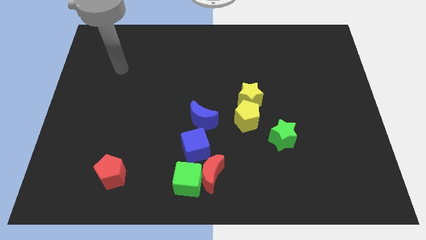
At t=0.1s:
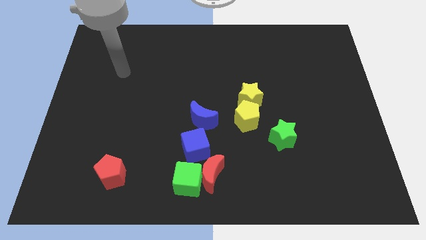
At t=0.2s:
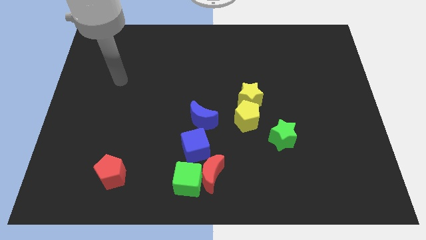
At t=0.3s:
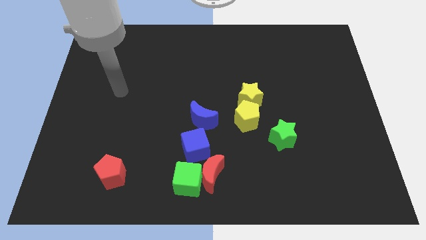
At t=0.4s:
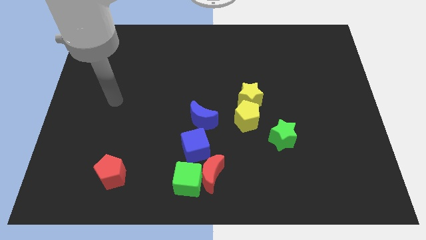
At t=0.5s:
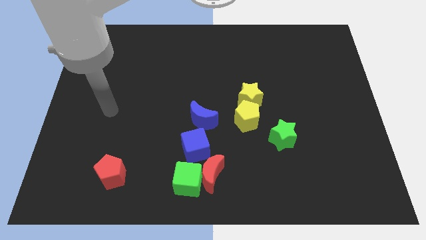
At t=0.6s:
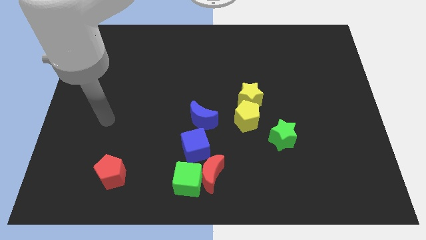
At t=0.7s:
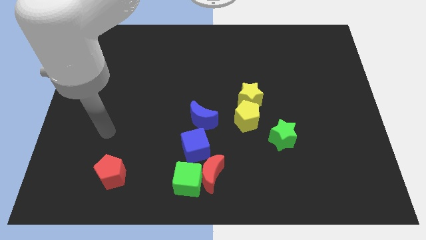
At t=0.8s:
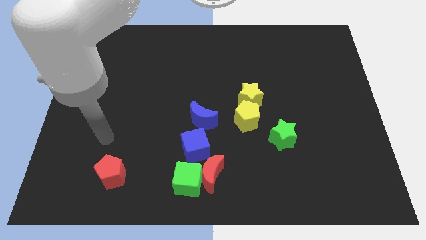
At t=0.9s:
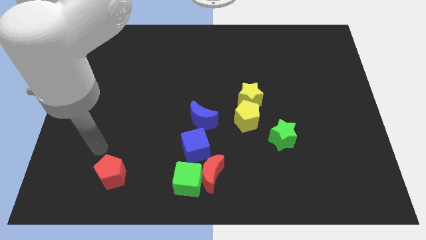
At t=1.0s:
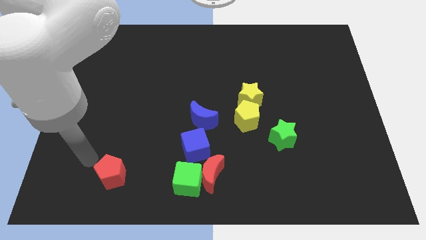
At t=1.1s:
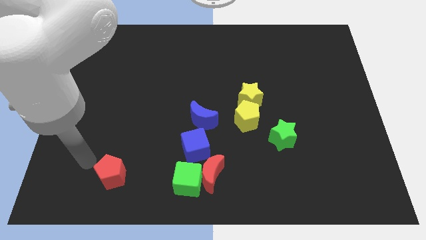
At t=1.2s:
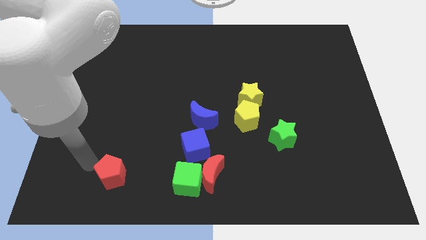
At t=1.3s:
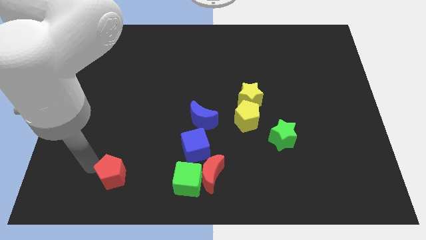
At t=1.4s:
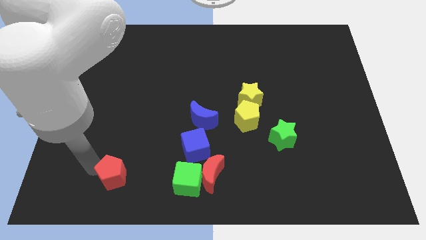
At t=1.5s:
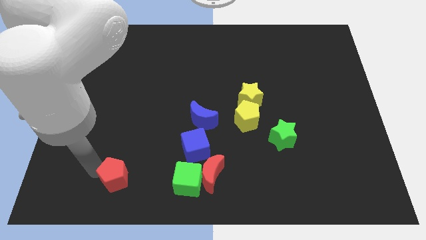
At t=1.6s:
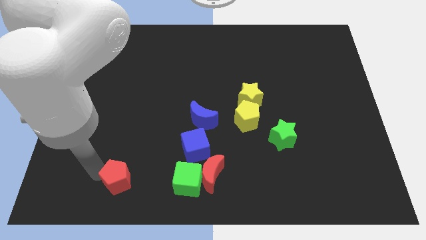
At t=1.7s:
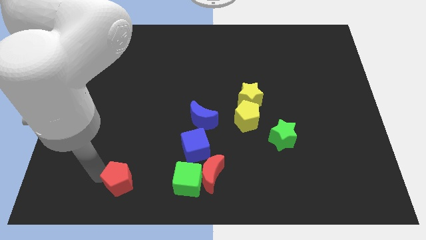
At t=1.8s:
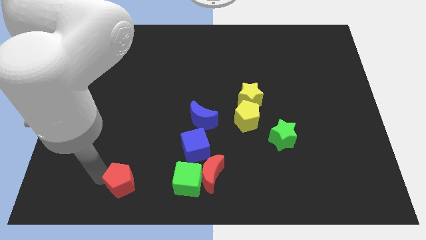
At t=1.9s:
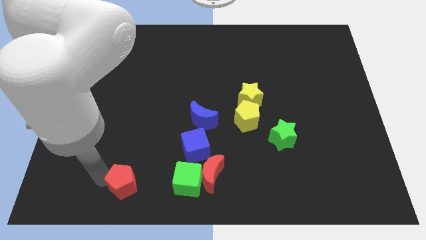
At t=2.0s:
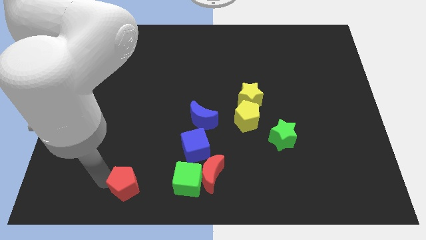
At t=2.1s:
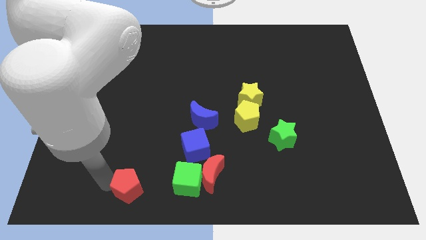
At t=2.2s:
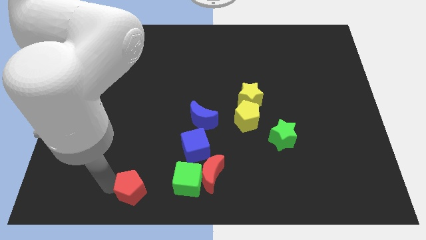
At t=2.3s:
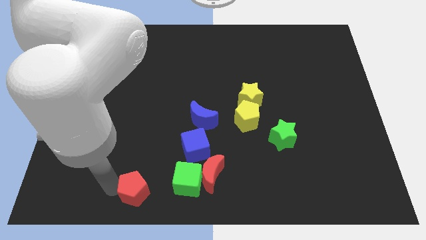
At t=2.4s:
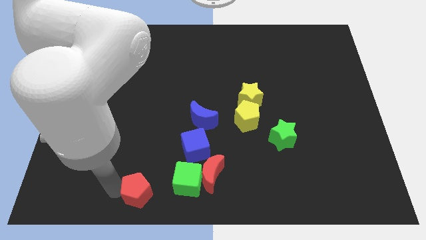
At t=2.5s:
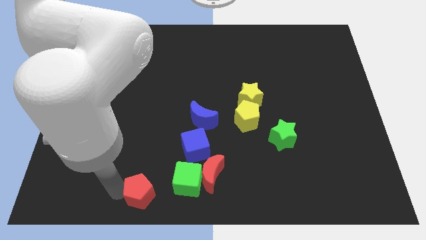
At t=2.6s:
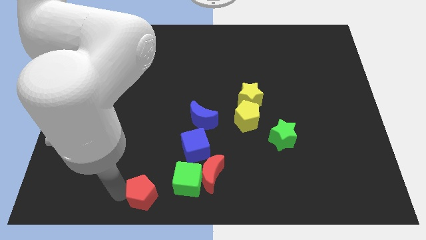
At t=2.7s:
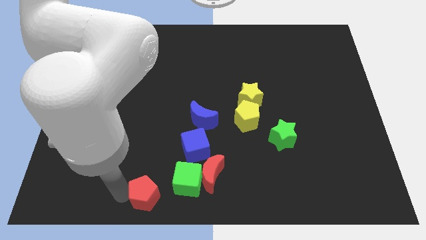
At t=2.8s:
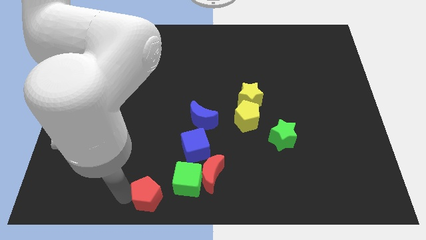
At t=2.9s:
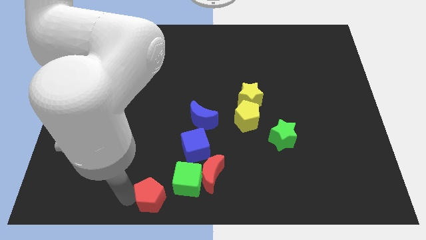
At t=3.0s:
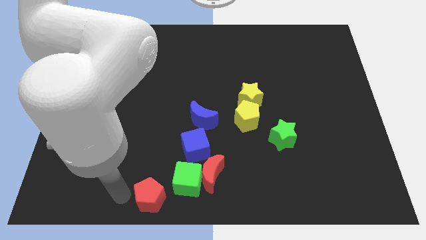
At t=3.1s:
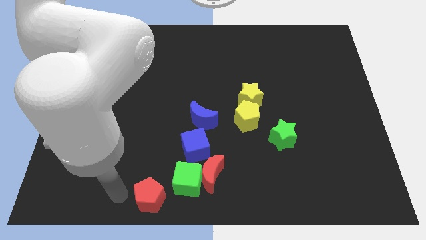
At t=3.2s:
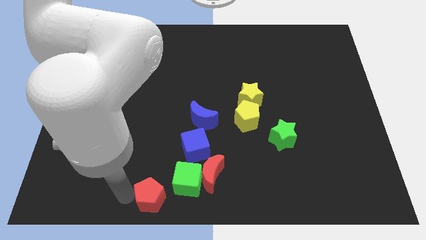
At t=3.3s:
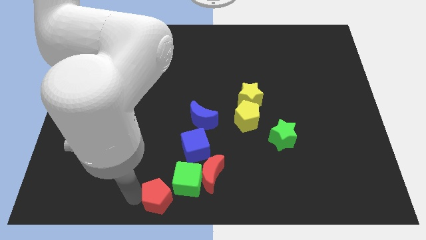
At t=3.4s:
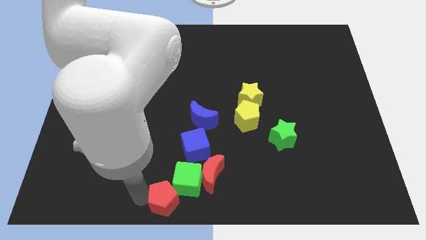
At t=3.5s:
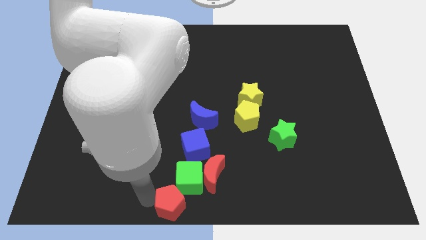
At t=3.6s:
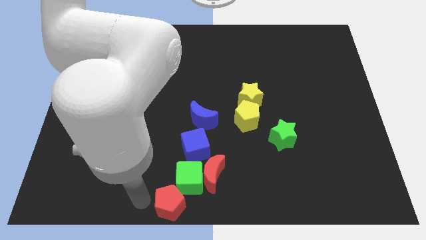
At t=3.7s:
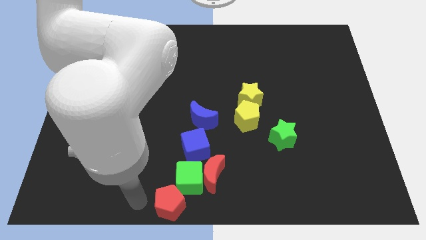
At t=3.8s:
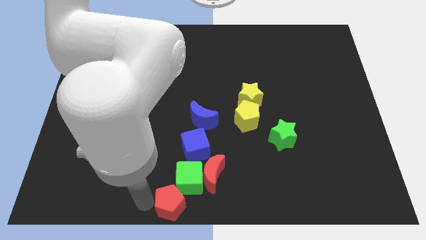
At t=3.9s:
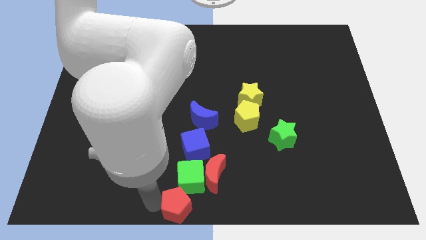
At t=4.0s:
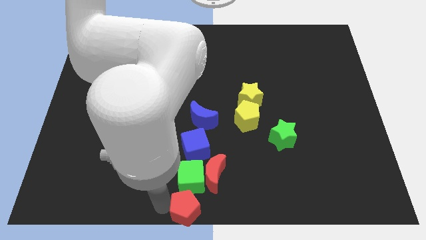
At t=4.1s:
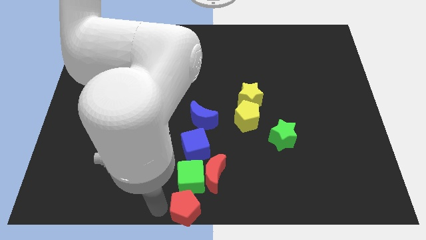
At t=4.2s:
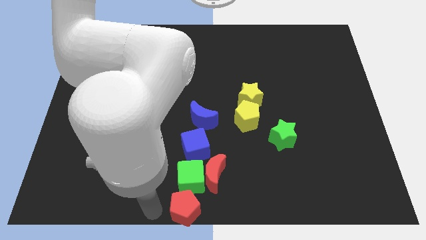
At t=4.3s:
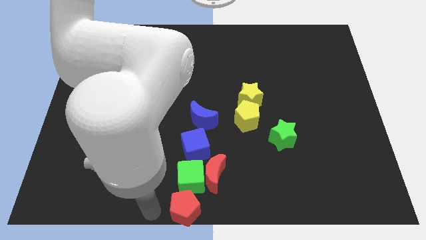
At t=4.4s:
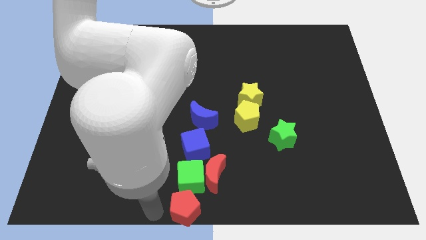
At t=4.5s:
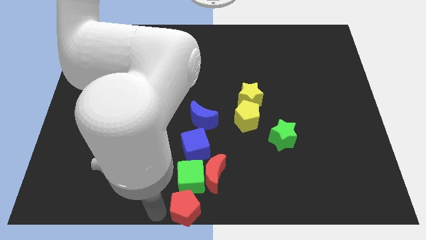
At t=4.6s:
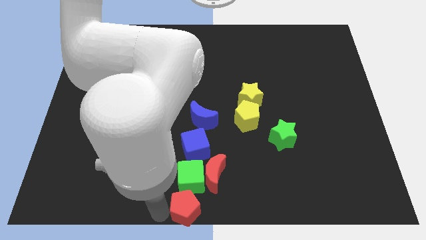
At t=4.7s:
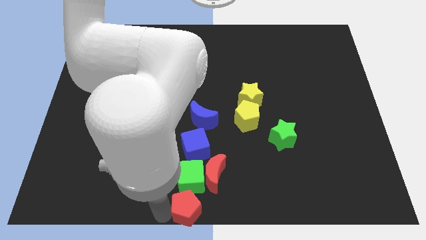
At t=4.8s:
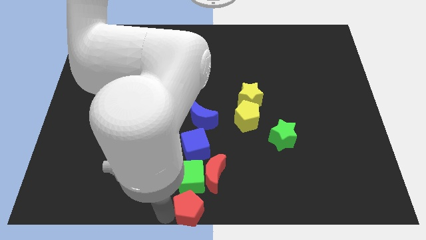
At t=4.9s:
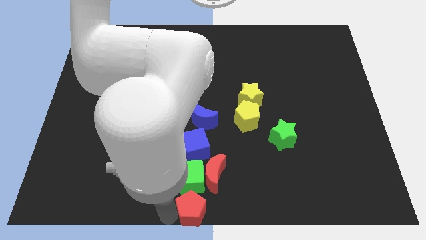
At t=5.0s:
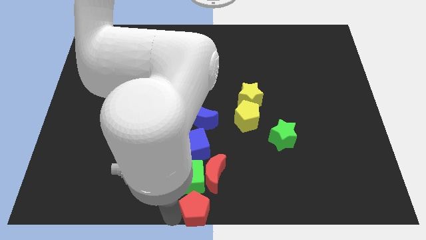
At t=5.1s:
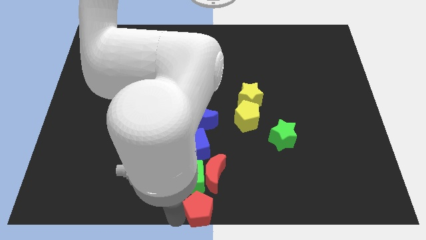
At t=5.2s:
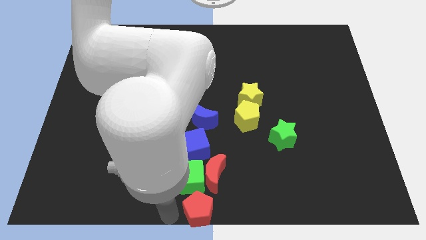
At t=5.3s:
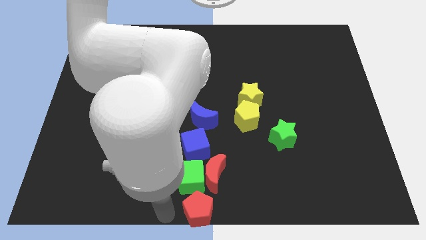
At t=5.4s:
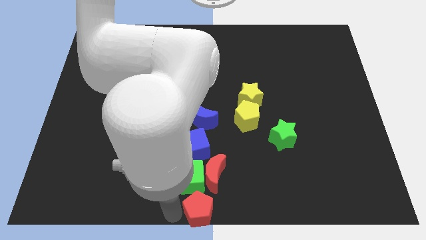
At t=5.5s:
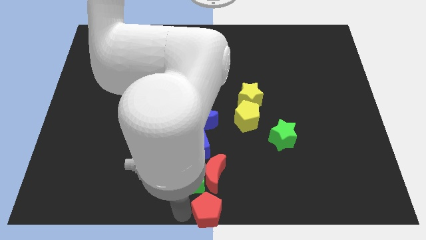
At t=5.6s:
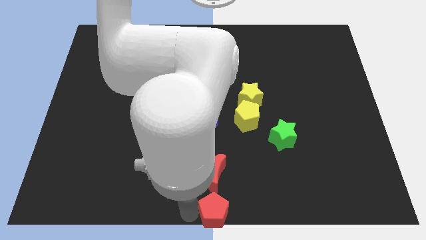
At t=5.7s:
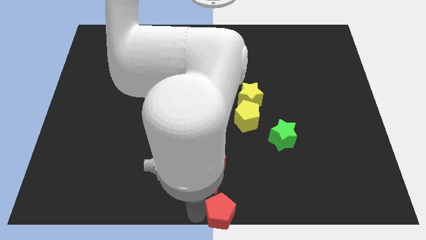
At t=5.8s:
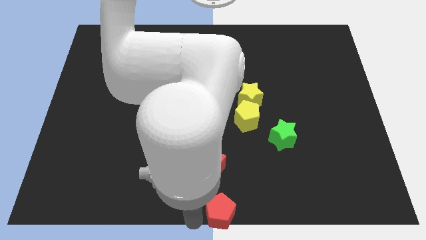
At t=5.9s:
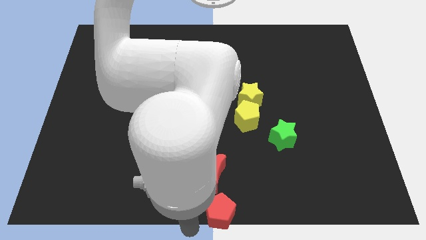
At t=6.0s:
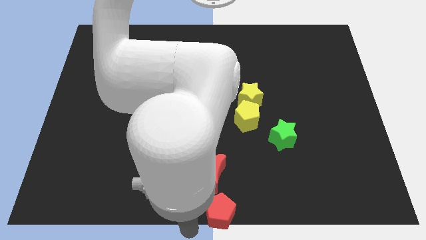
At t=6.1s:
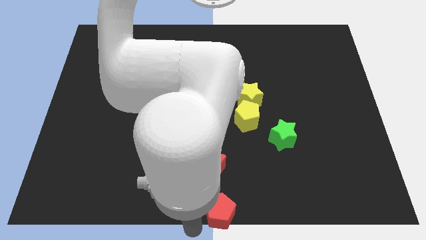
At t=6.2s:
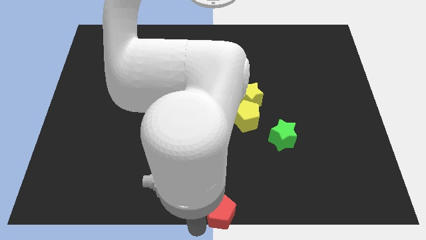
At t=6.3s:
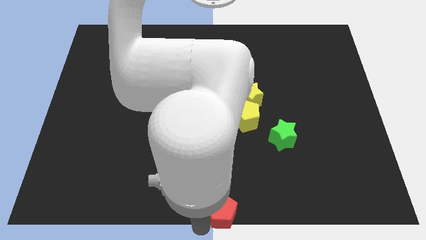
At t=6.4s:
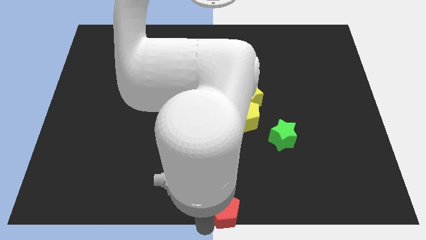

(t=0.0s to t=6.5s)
push the red pentagon to the right

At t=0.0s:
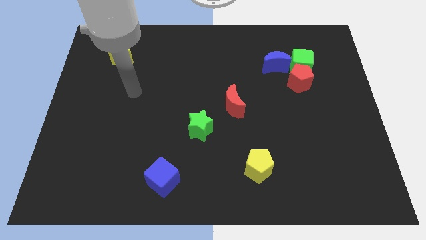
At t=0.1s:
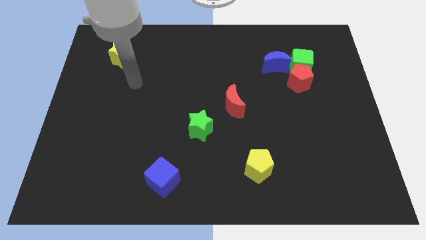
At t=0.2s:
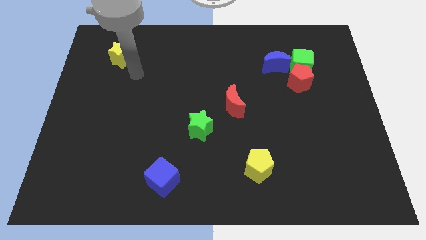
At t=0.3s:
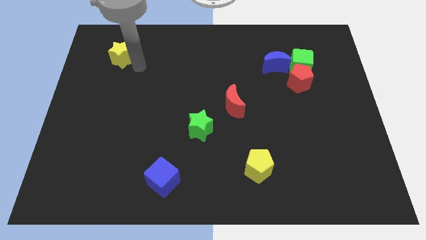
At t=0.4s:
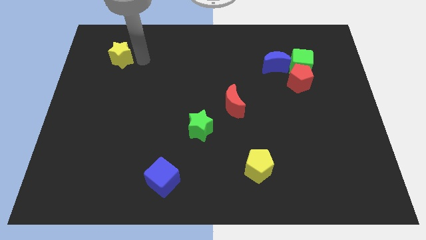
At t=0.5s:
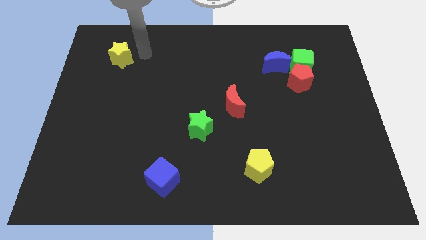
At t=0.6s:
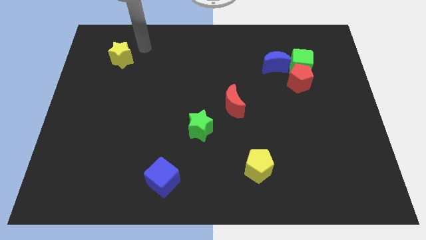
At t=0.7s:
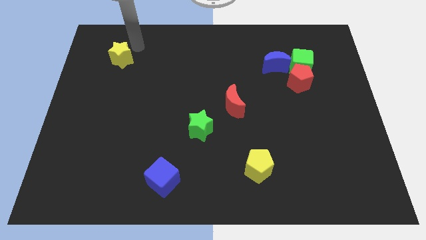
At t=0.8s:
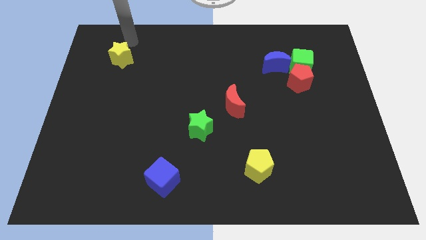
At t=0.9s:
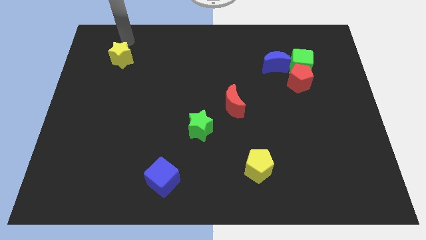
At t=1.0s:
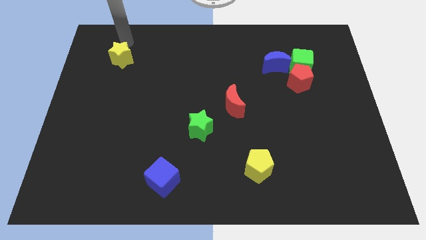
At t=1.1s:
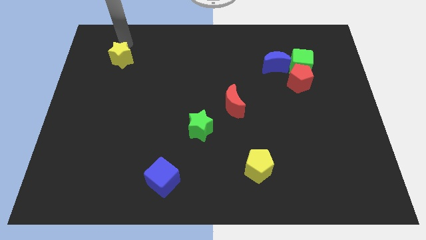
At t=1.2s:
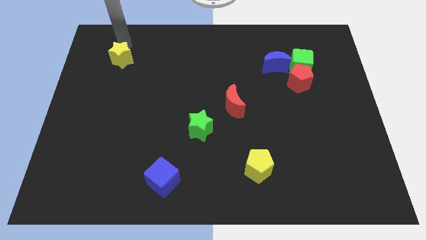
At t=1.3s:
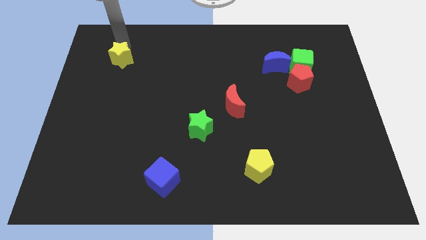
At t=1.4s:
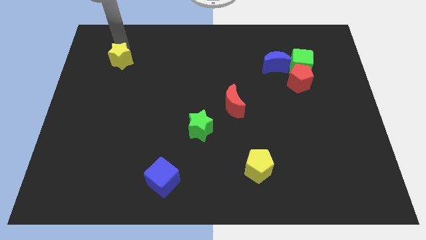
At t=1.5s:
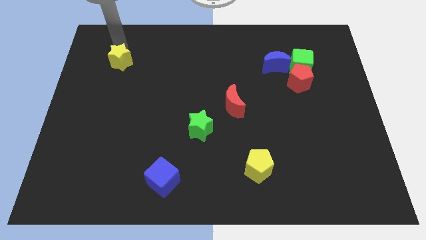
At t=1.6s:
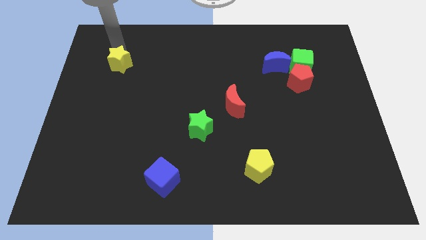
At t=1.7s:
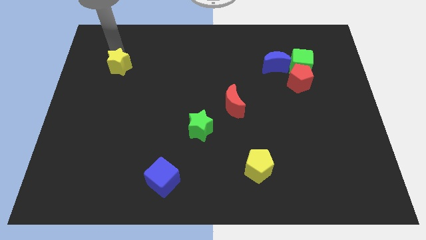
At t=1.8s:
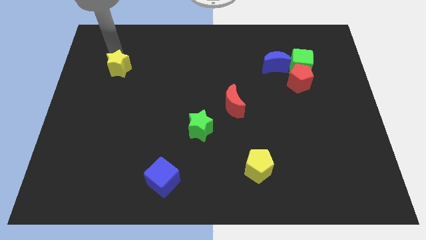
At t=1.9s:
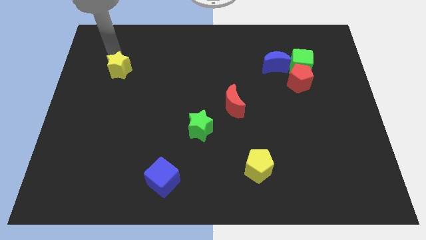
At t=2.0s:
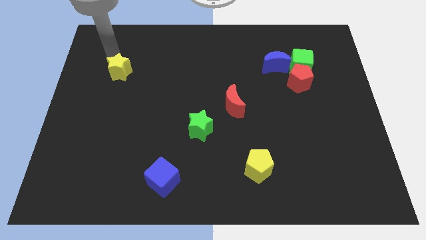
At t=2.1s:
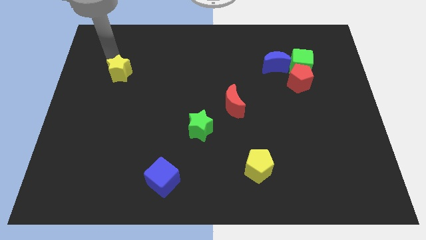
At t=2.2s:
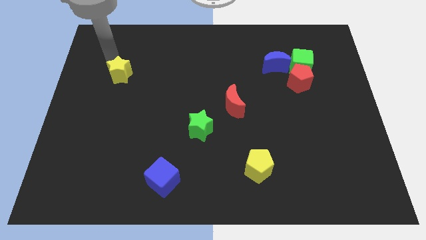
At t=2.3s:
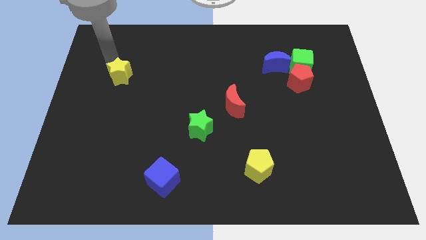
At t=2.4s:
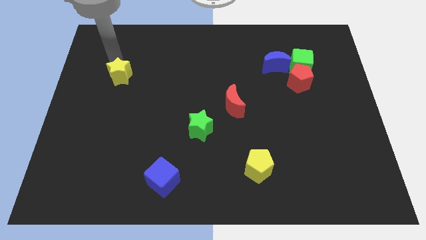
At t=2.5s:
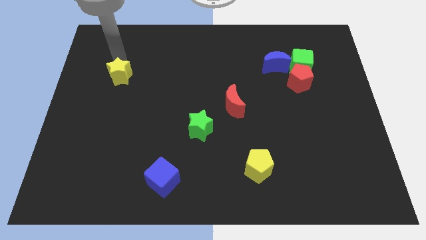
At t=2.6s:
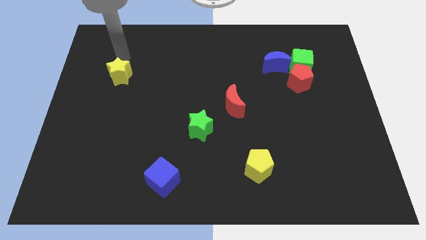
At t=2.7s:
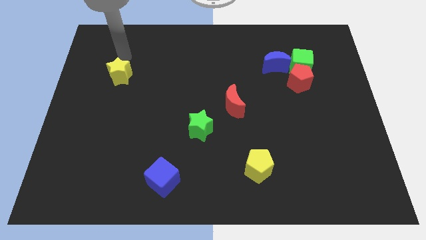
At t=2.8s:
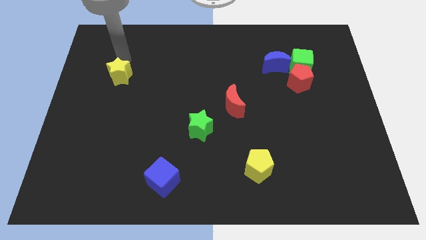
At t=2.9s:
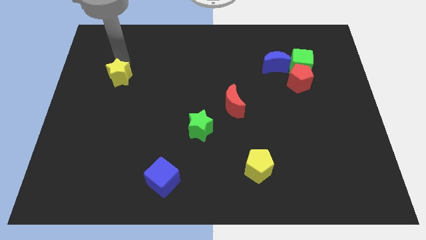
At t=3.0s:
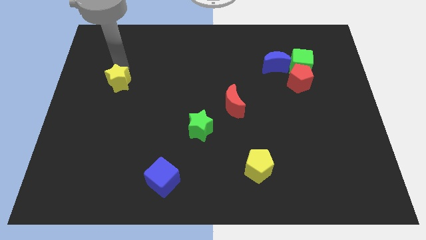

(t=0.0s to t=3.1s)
move the yellow star a little bit downwards
